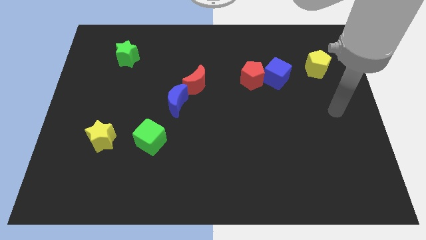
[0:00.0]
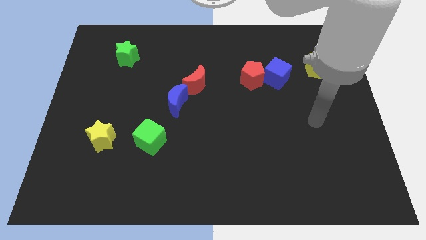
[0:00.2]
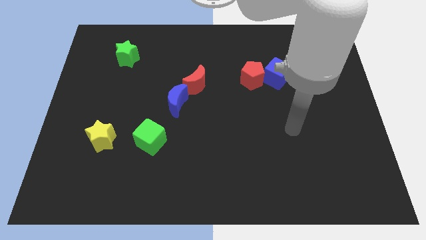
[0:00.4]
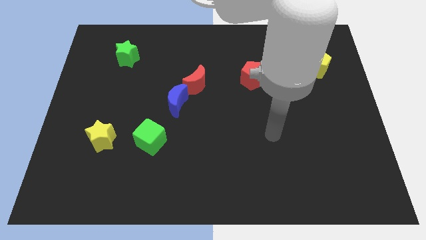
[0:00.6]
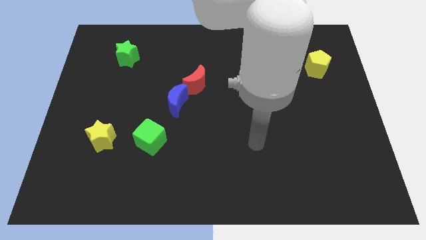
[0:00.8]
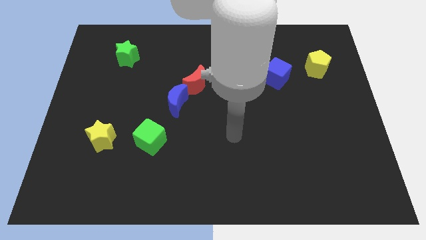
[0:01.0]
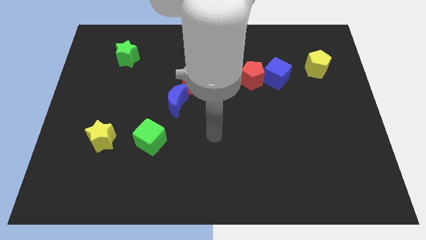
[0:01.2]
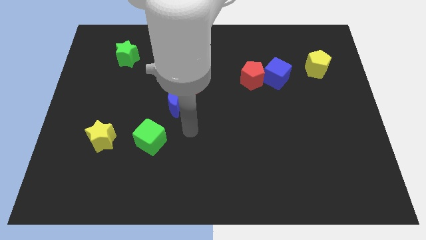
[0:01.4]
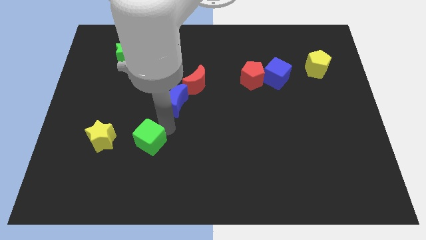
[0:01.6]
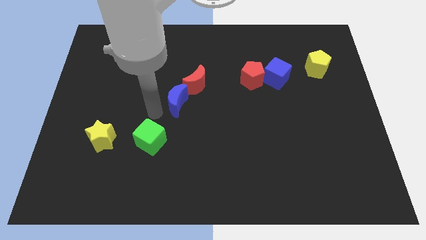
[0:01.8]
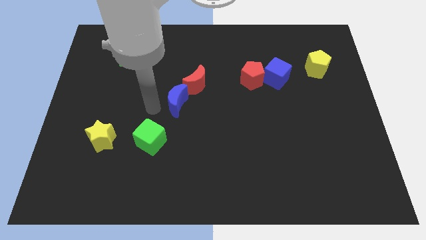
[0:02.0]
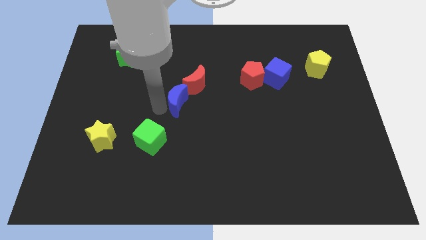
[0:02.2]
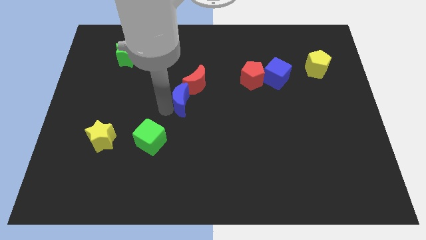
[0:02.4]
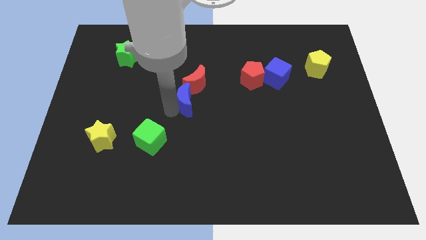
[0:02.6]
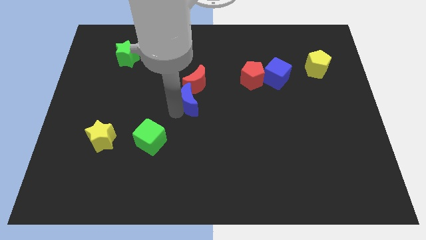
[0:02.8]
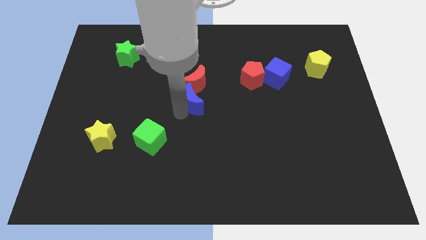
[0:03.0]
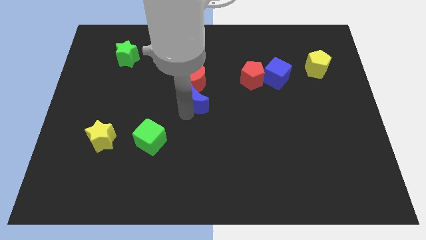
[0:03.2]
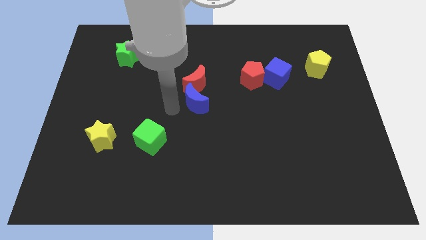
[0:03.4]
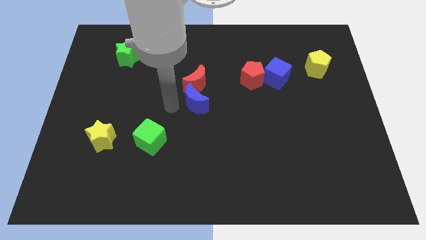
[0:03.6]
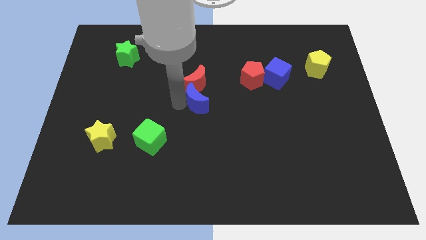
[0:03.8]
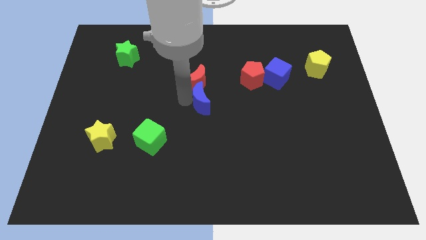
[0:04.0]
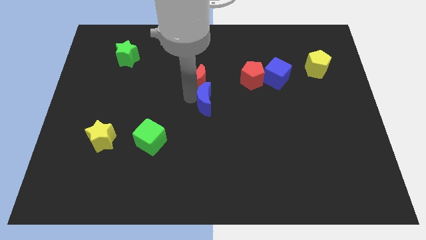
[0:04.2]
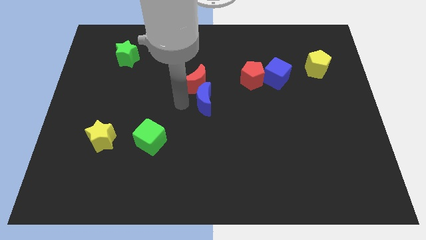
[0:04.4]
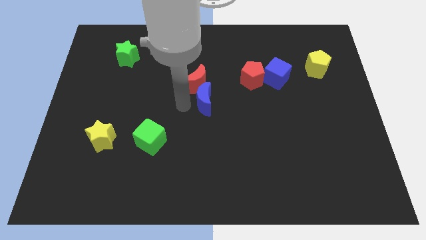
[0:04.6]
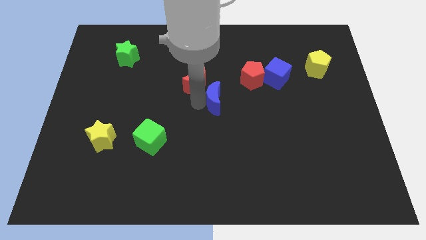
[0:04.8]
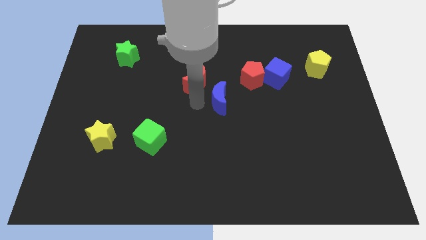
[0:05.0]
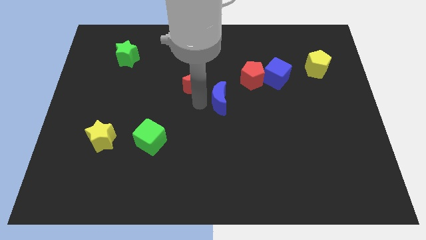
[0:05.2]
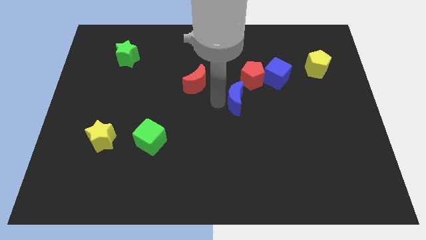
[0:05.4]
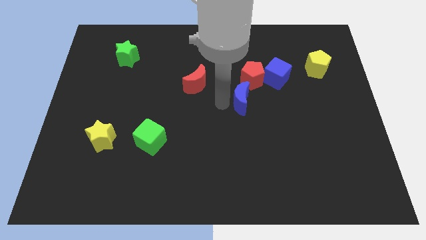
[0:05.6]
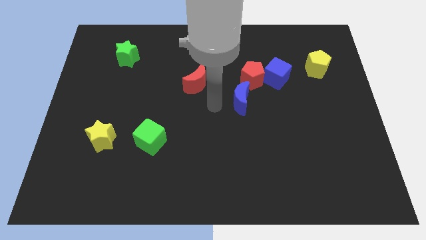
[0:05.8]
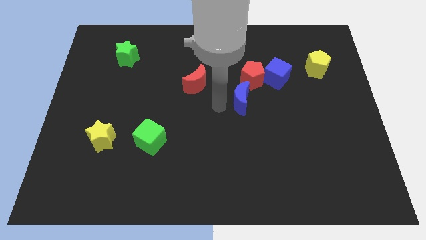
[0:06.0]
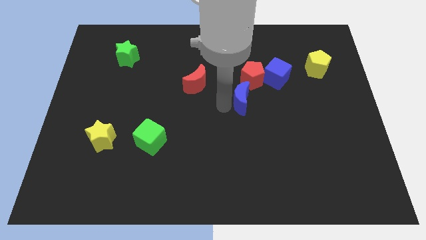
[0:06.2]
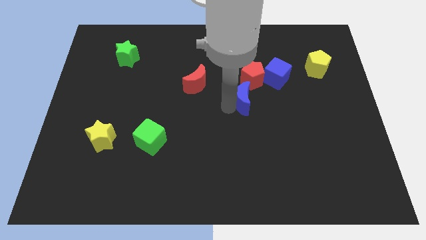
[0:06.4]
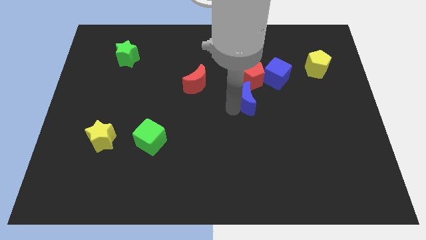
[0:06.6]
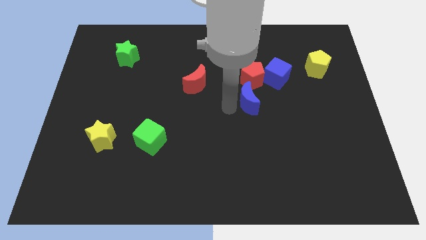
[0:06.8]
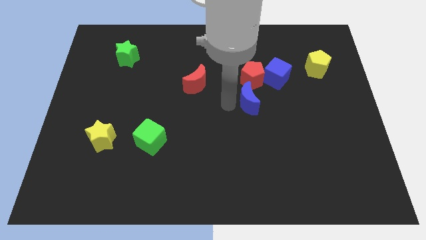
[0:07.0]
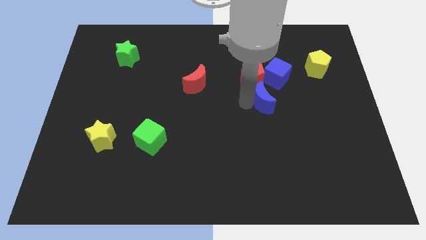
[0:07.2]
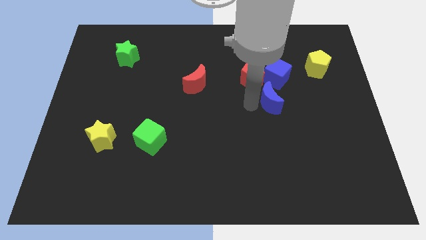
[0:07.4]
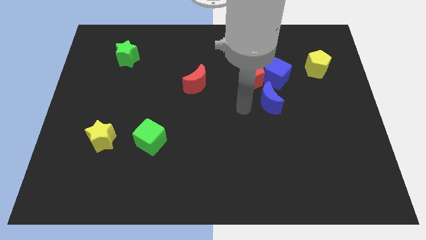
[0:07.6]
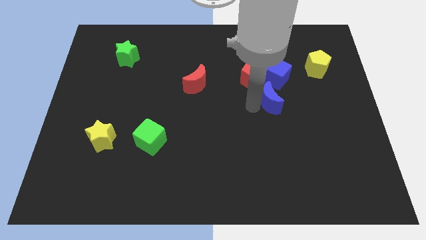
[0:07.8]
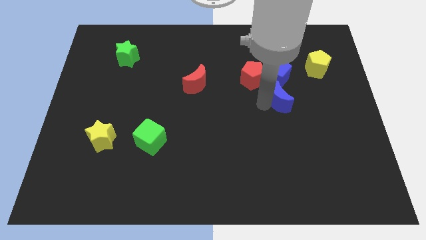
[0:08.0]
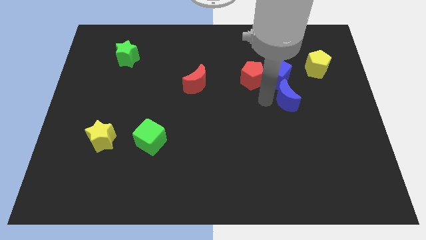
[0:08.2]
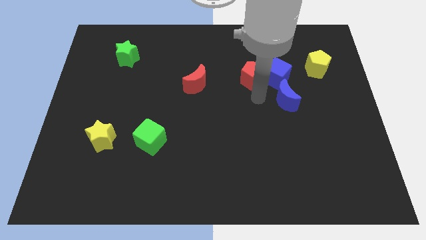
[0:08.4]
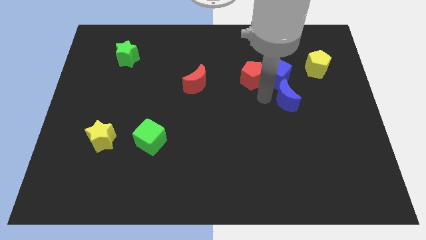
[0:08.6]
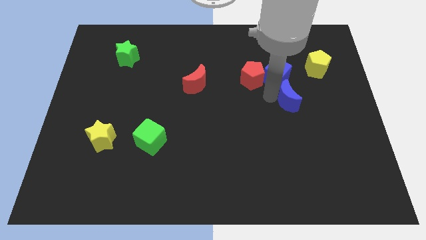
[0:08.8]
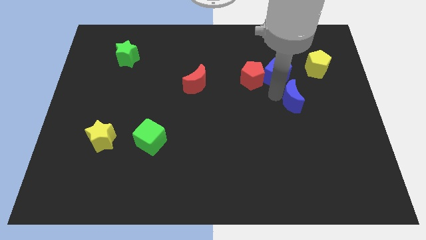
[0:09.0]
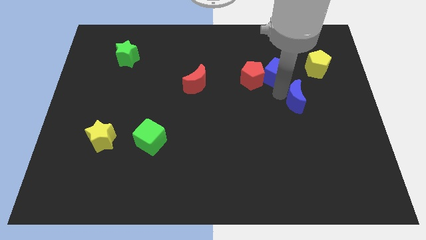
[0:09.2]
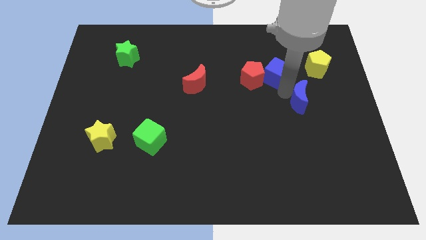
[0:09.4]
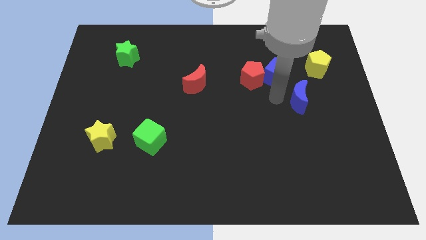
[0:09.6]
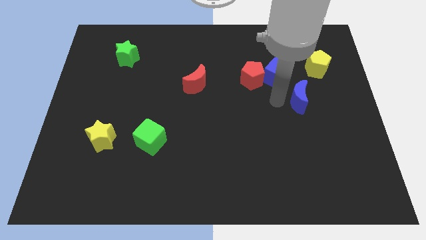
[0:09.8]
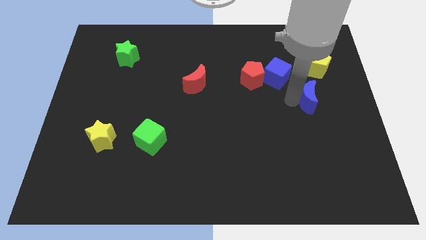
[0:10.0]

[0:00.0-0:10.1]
move the blue moon to the bottom side of the yellow pentagon

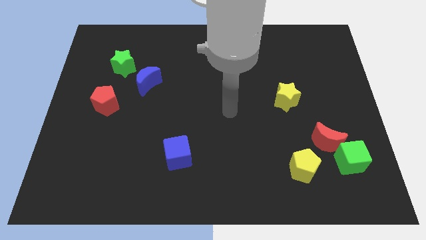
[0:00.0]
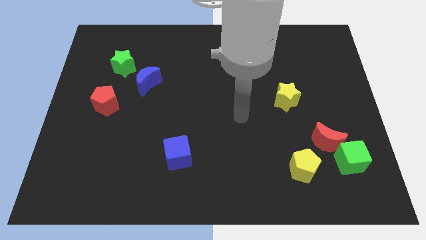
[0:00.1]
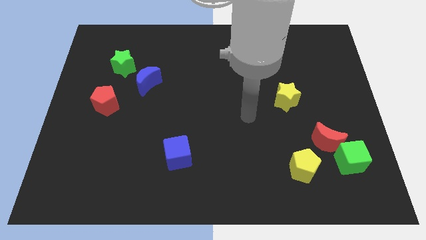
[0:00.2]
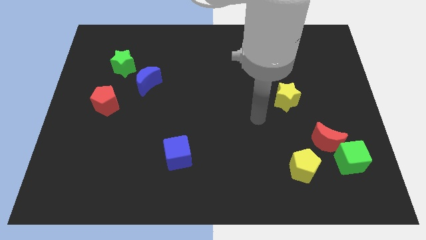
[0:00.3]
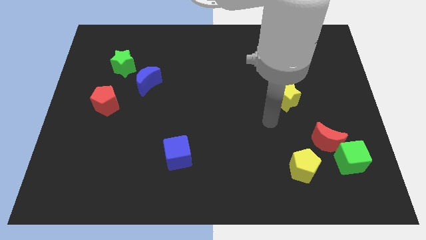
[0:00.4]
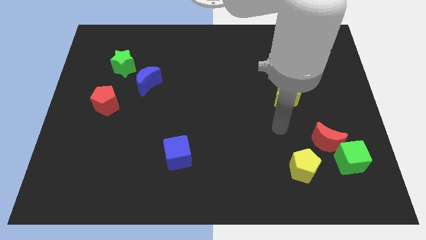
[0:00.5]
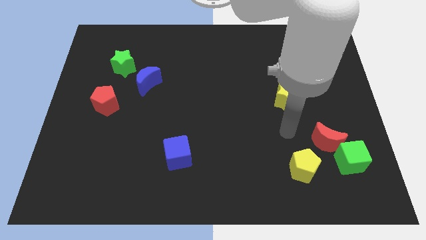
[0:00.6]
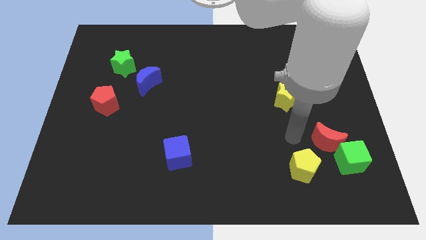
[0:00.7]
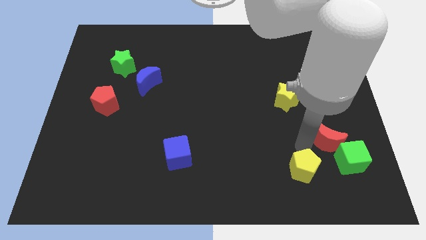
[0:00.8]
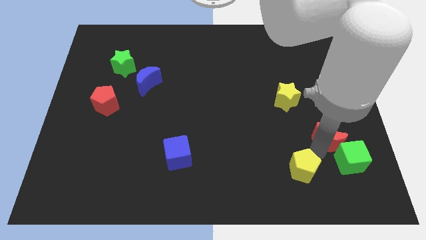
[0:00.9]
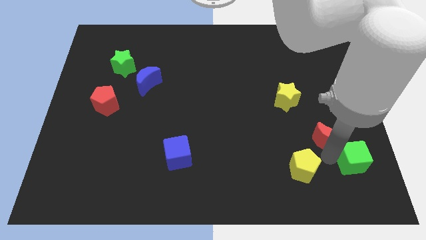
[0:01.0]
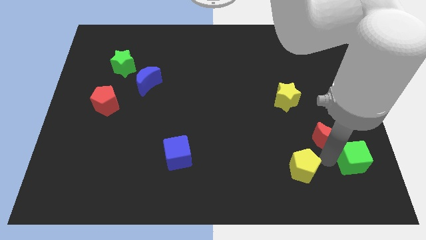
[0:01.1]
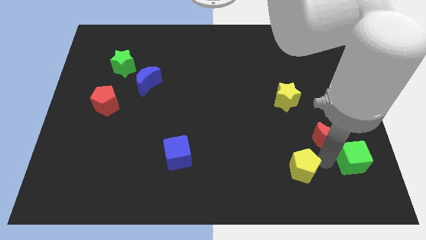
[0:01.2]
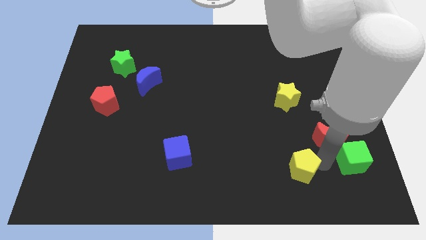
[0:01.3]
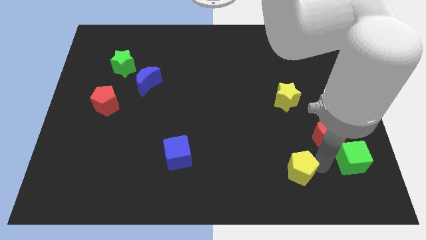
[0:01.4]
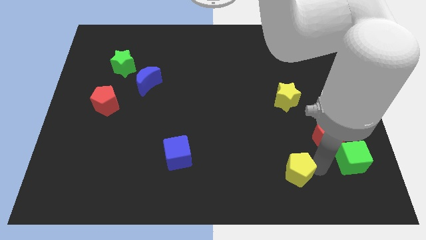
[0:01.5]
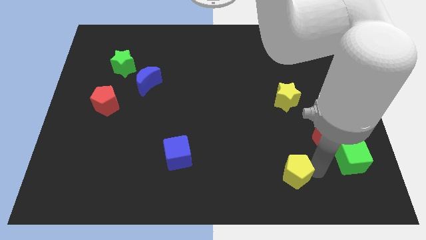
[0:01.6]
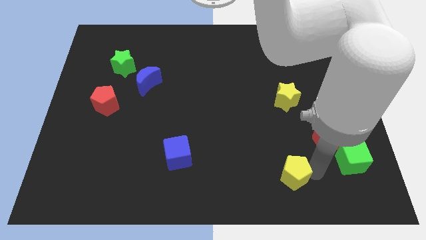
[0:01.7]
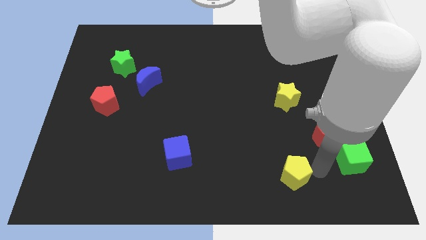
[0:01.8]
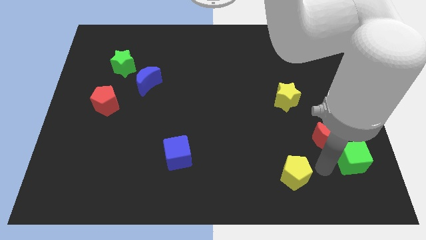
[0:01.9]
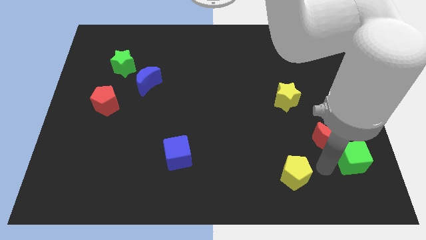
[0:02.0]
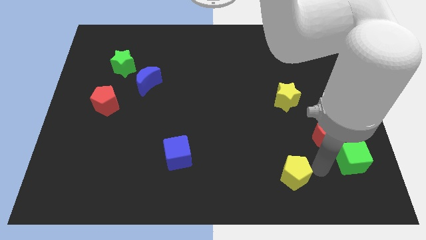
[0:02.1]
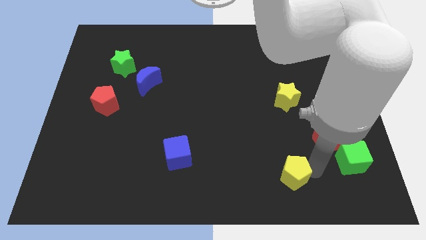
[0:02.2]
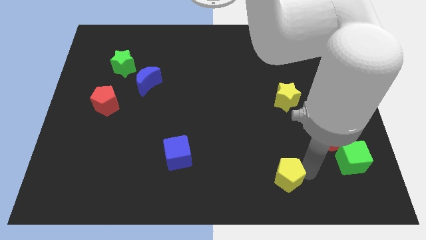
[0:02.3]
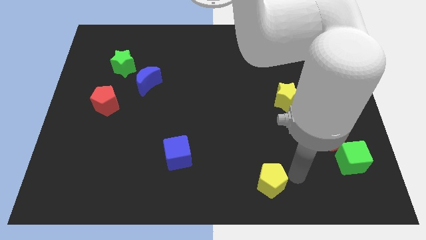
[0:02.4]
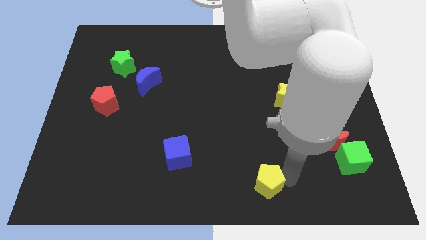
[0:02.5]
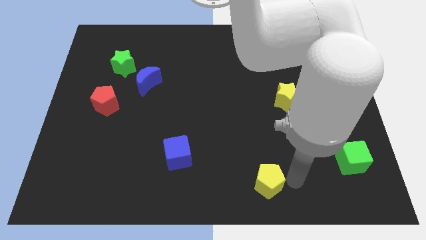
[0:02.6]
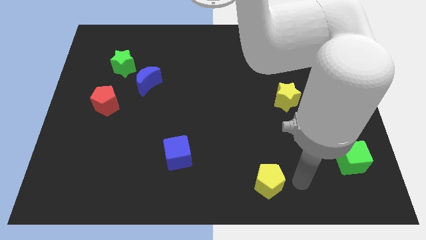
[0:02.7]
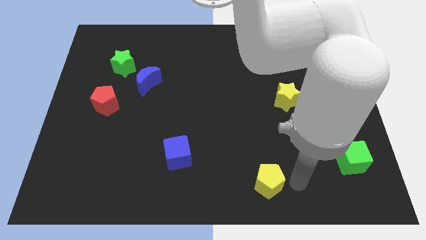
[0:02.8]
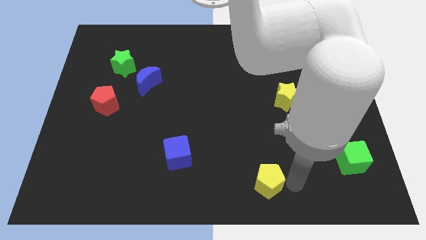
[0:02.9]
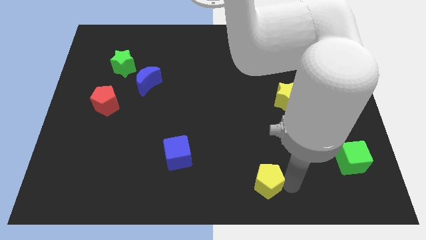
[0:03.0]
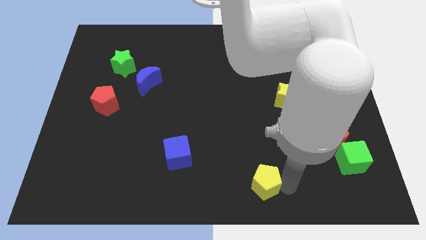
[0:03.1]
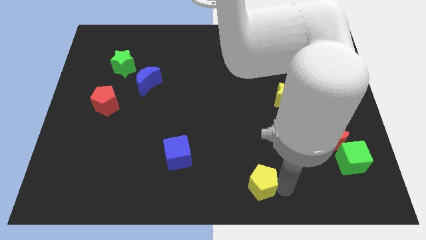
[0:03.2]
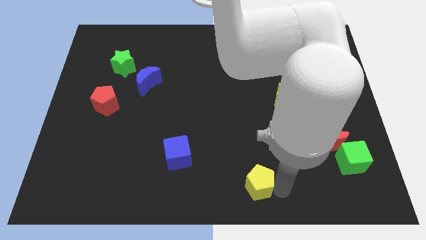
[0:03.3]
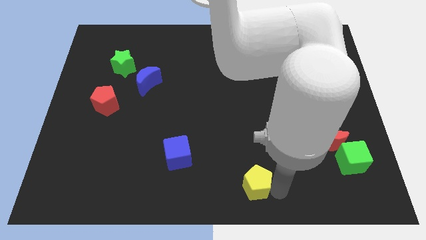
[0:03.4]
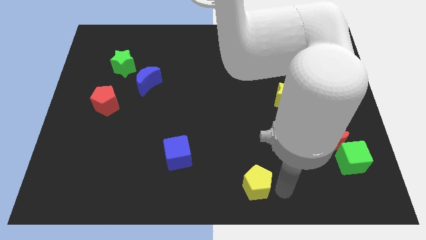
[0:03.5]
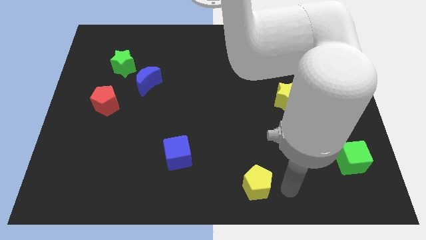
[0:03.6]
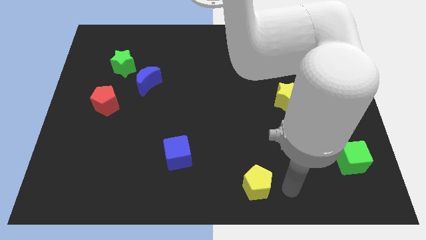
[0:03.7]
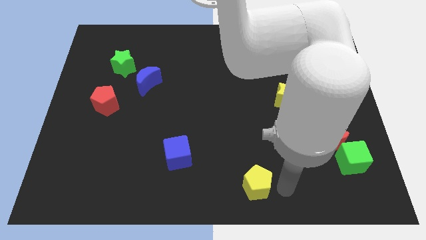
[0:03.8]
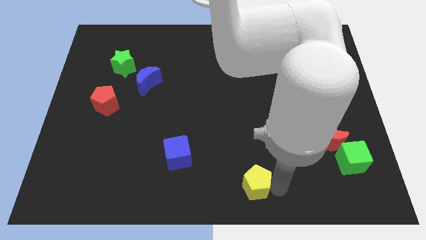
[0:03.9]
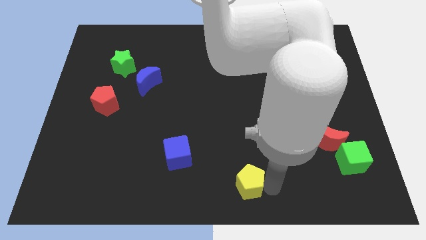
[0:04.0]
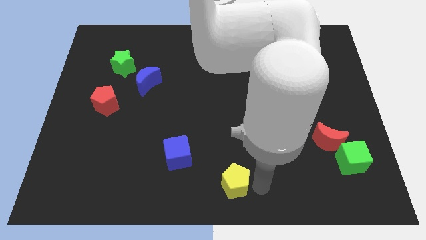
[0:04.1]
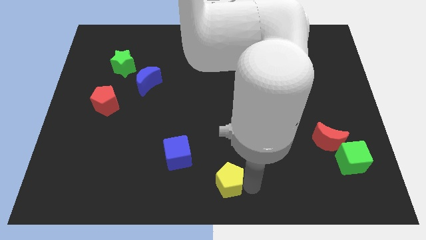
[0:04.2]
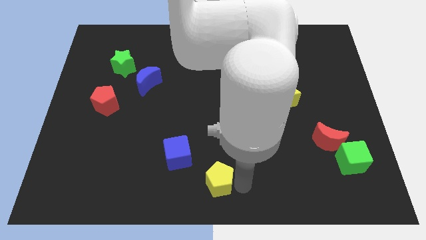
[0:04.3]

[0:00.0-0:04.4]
move the yellow pentagon diagonally down and to the right of the blue cube
